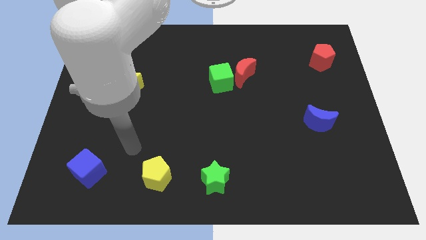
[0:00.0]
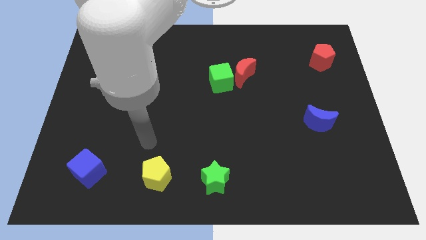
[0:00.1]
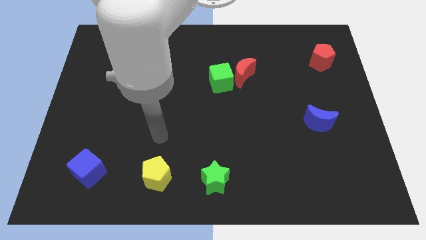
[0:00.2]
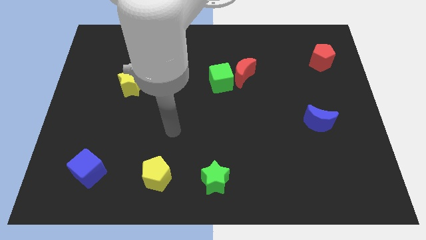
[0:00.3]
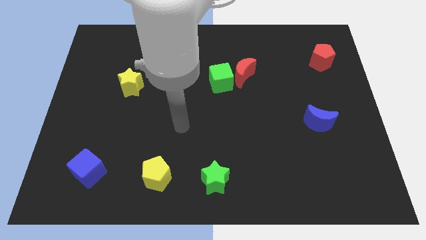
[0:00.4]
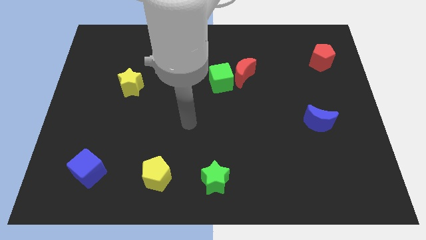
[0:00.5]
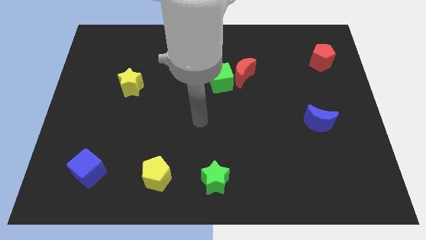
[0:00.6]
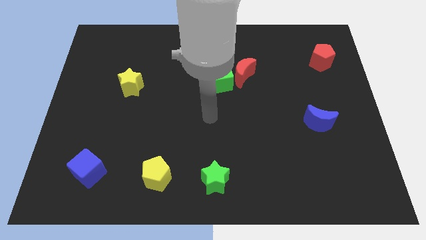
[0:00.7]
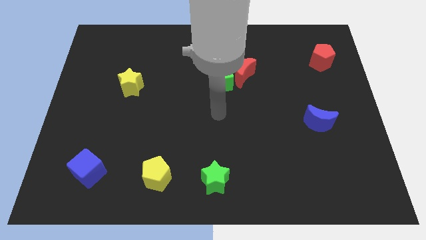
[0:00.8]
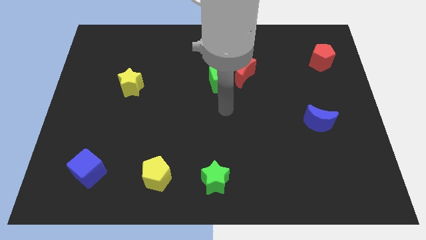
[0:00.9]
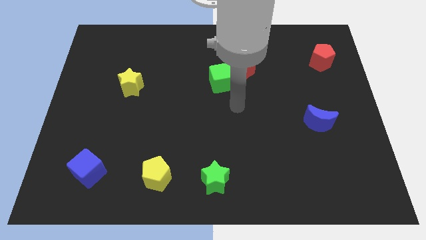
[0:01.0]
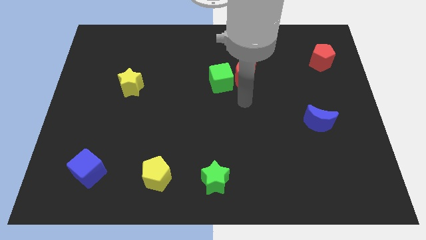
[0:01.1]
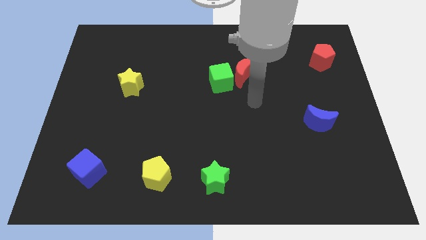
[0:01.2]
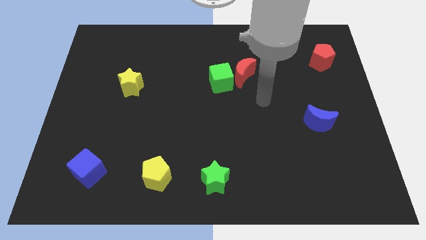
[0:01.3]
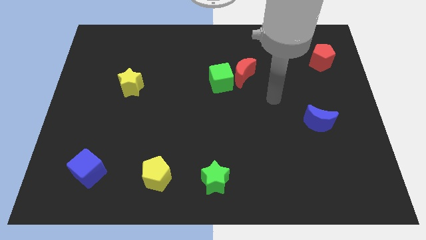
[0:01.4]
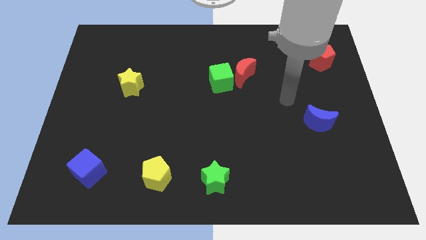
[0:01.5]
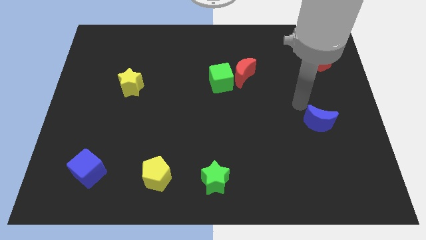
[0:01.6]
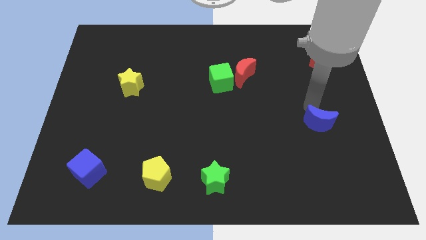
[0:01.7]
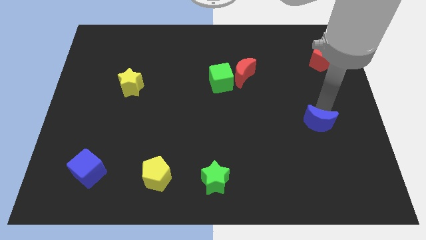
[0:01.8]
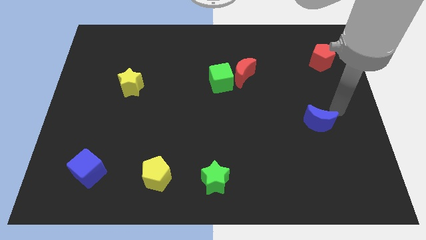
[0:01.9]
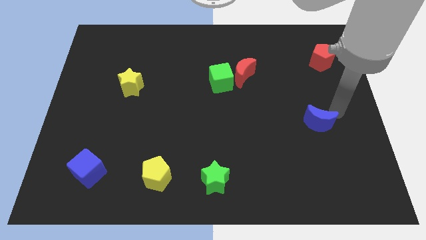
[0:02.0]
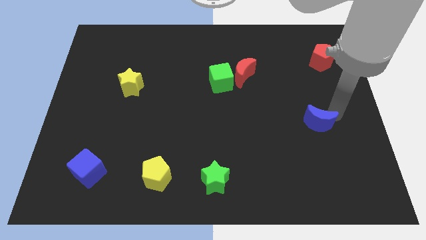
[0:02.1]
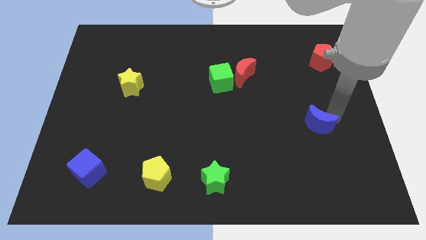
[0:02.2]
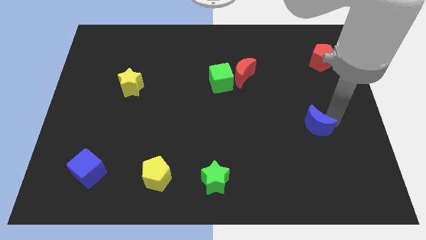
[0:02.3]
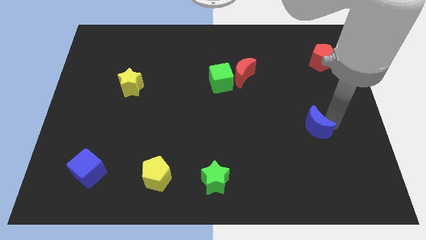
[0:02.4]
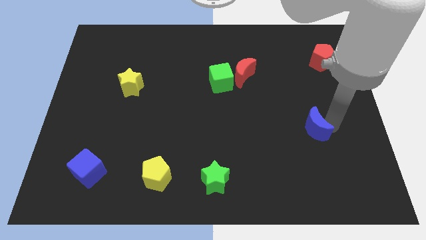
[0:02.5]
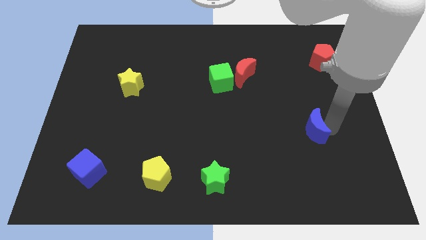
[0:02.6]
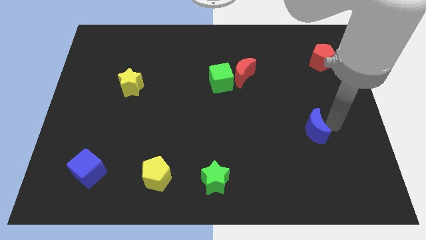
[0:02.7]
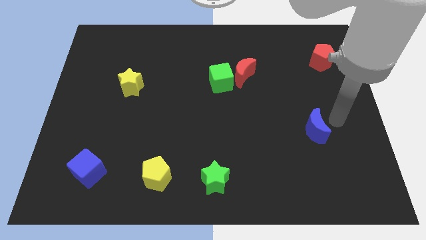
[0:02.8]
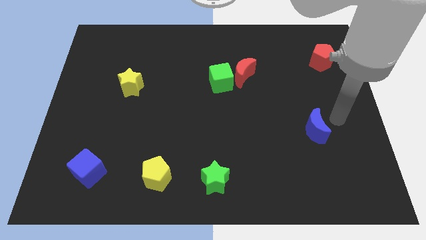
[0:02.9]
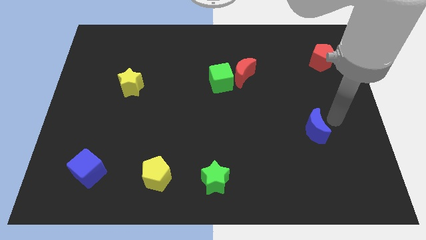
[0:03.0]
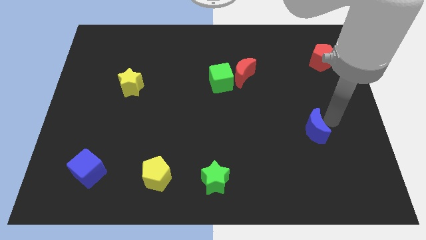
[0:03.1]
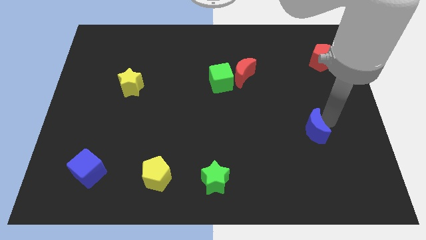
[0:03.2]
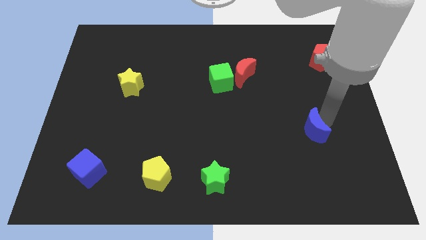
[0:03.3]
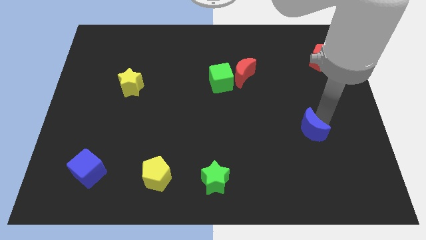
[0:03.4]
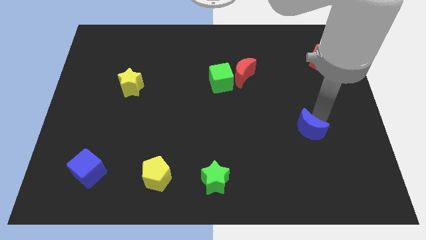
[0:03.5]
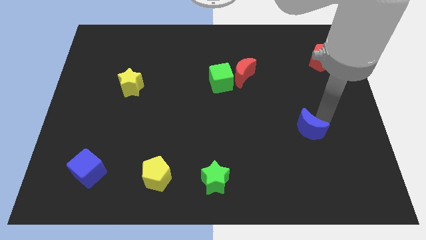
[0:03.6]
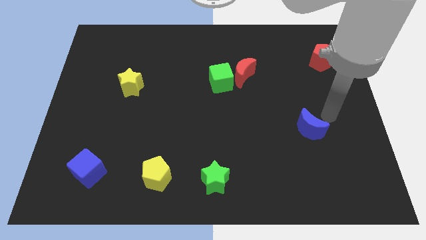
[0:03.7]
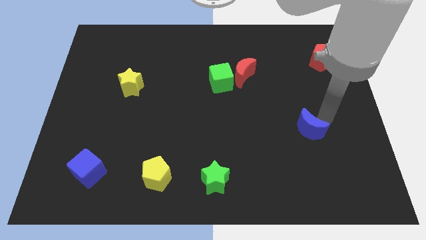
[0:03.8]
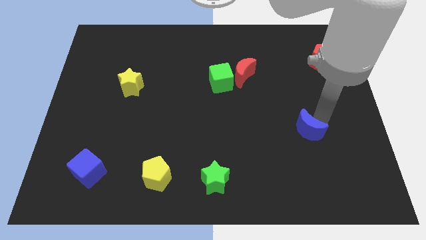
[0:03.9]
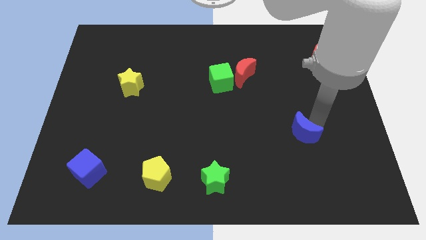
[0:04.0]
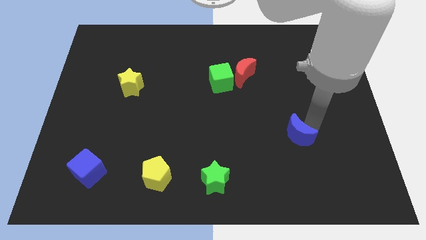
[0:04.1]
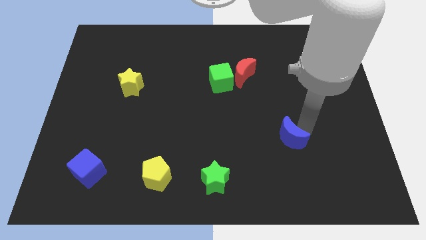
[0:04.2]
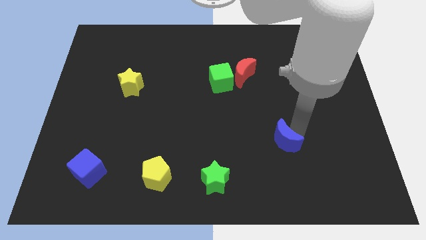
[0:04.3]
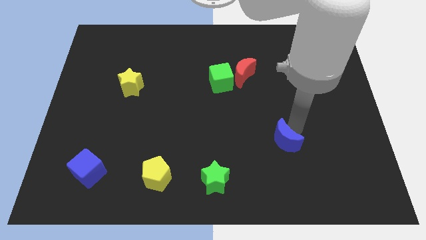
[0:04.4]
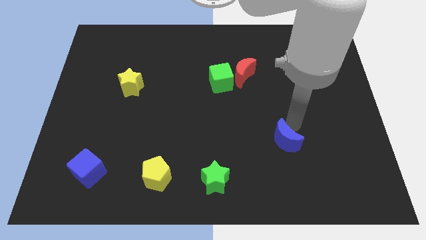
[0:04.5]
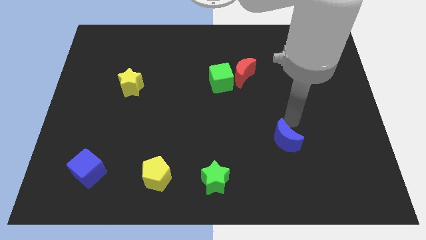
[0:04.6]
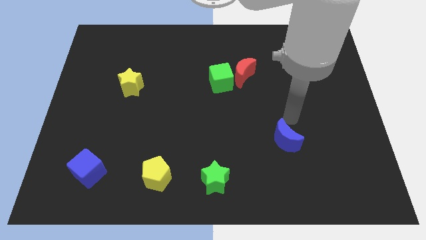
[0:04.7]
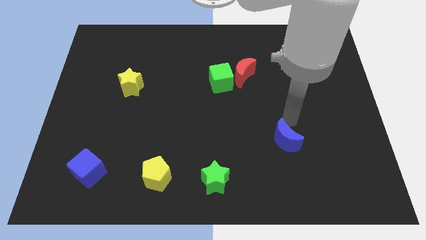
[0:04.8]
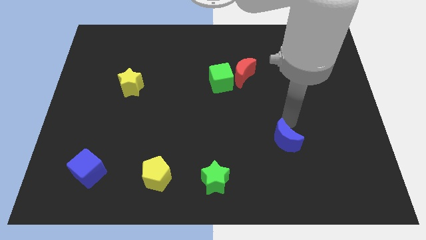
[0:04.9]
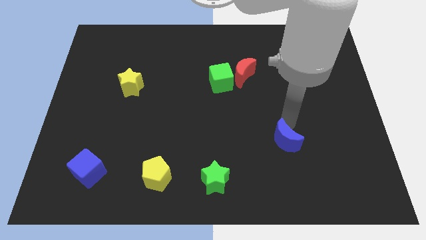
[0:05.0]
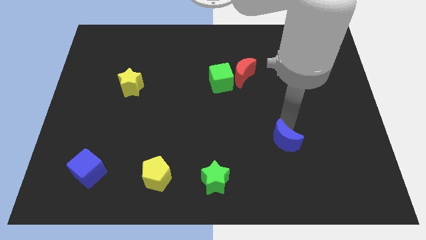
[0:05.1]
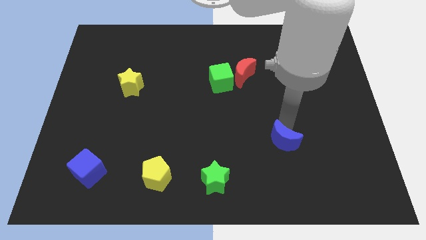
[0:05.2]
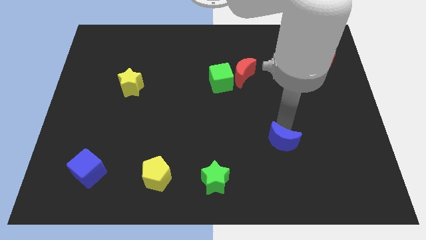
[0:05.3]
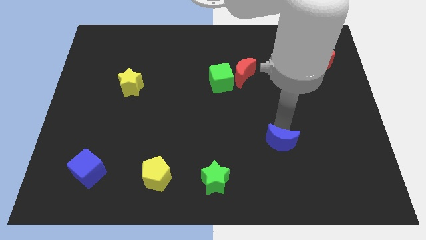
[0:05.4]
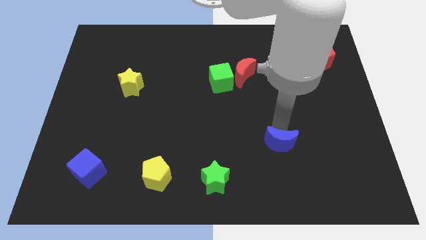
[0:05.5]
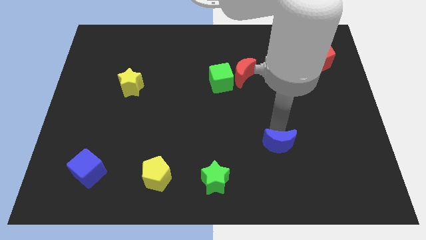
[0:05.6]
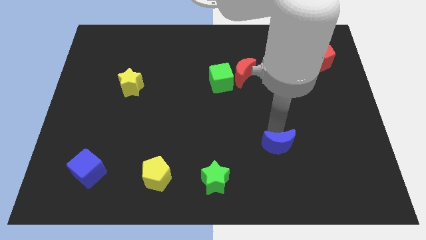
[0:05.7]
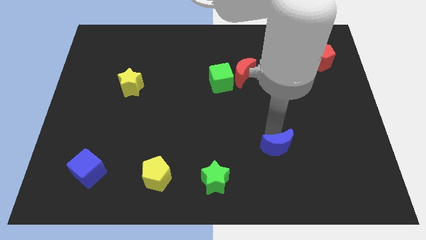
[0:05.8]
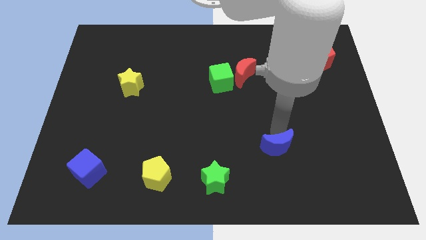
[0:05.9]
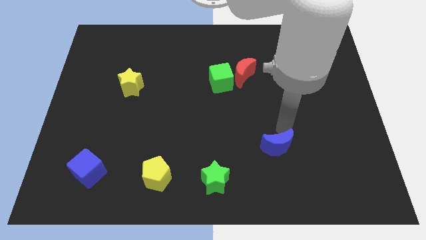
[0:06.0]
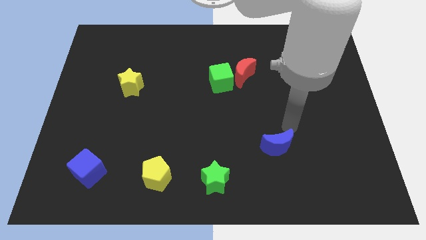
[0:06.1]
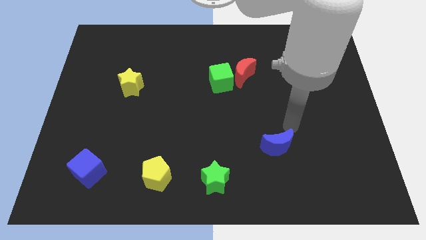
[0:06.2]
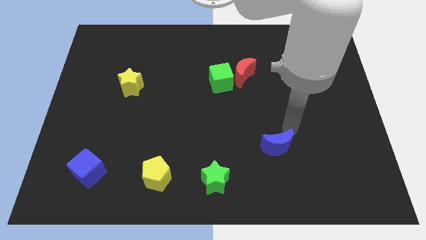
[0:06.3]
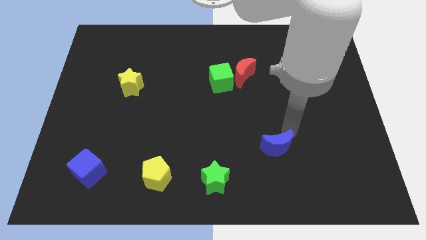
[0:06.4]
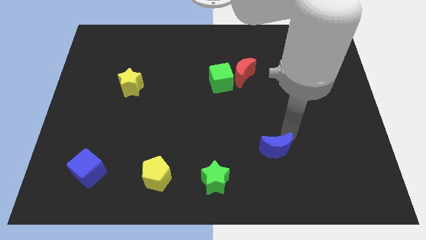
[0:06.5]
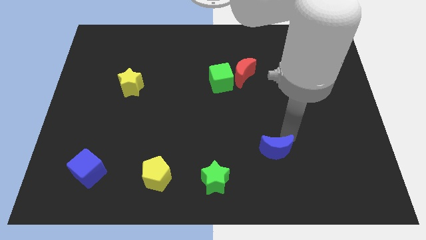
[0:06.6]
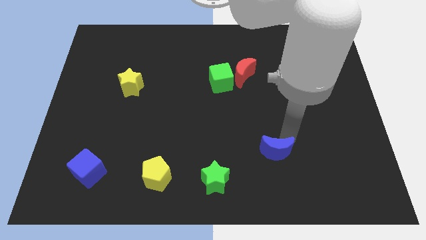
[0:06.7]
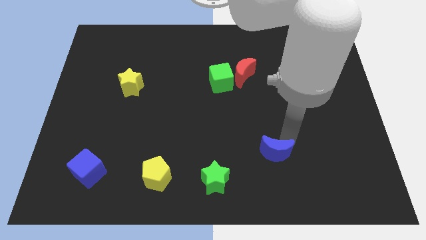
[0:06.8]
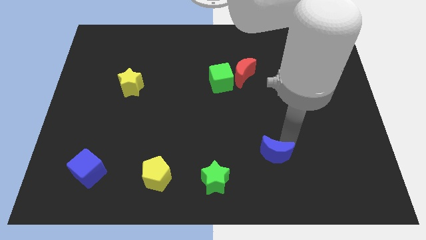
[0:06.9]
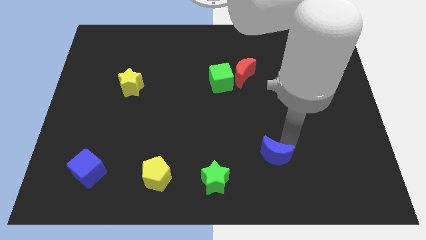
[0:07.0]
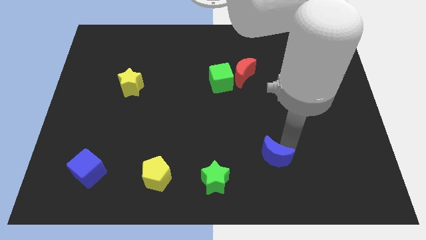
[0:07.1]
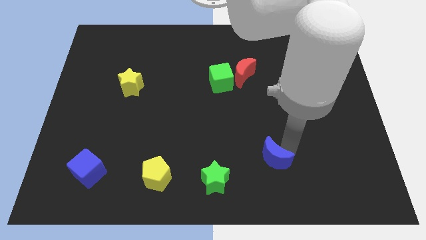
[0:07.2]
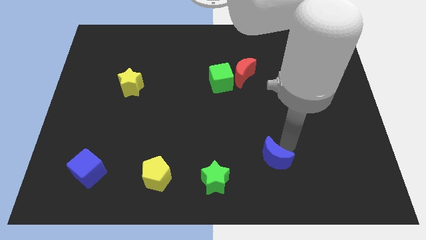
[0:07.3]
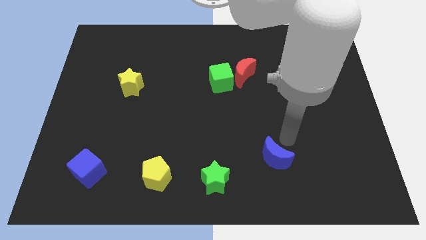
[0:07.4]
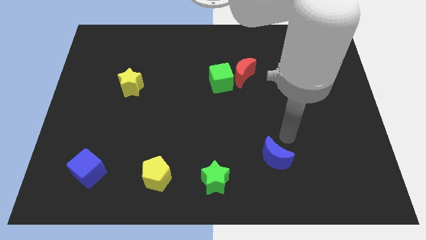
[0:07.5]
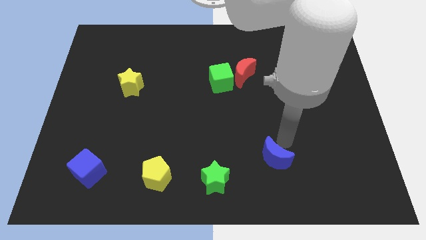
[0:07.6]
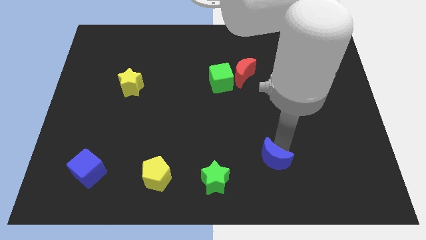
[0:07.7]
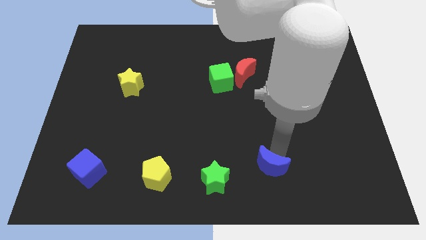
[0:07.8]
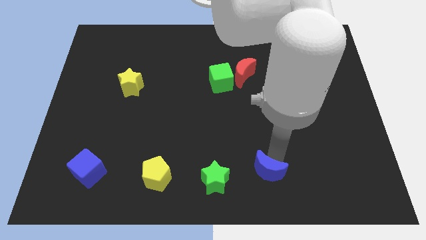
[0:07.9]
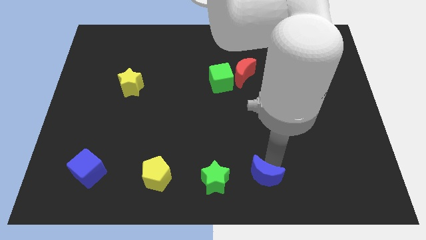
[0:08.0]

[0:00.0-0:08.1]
slide the blue moon to the bottom
